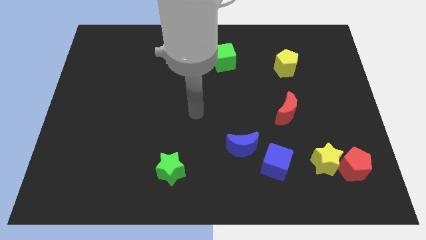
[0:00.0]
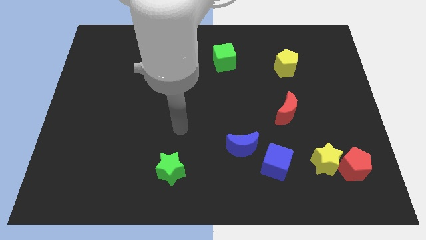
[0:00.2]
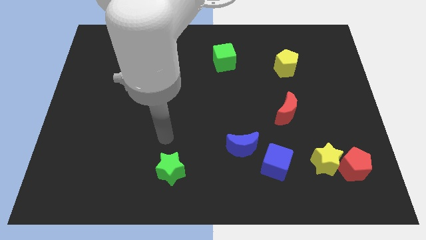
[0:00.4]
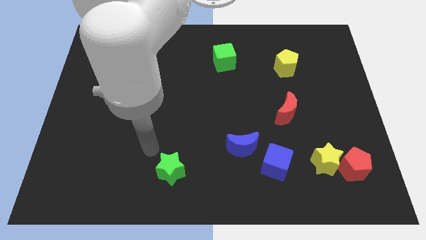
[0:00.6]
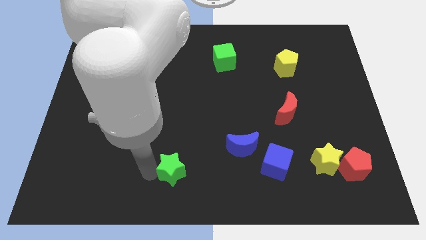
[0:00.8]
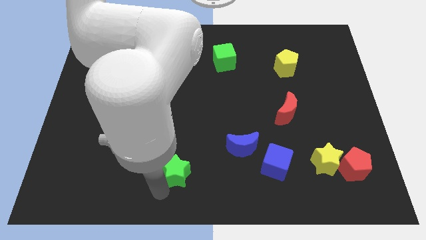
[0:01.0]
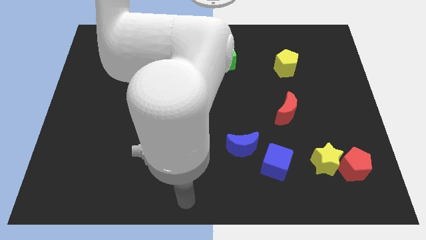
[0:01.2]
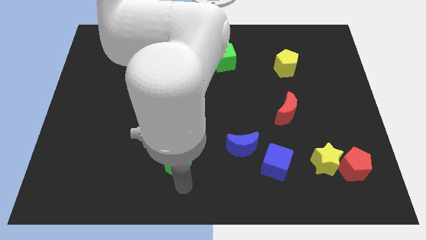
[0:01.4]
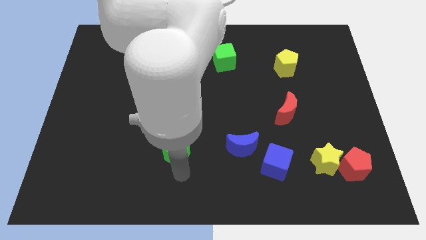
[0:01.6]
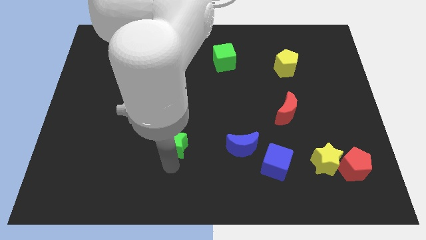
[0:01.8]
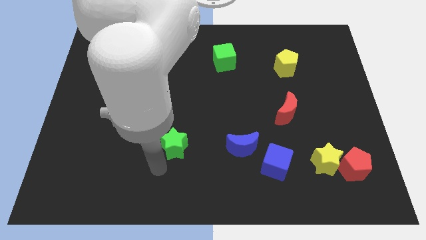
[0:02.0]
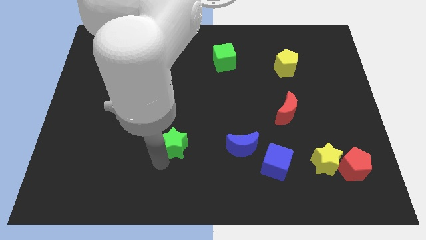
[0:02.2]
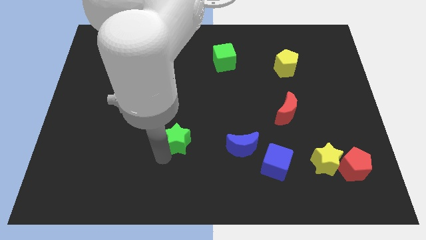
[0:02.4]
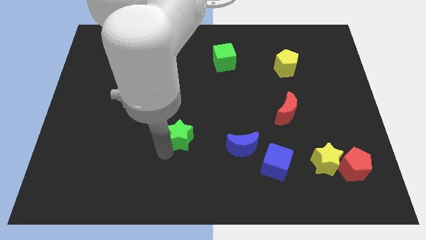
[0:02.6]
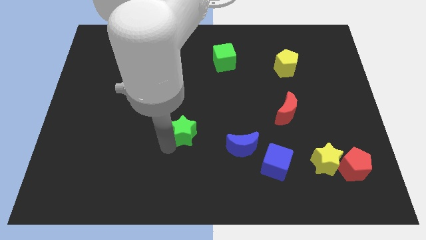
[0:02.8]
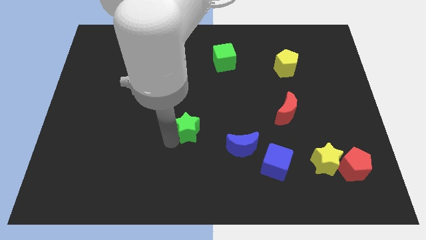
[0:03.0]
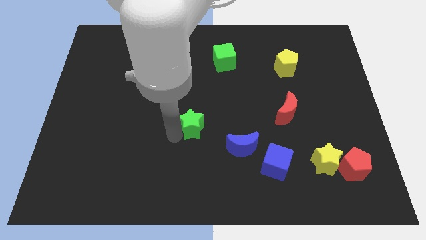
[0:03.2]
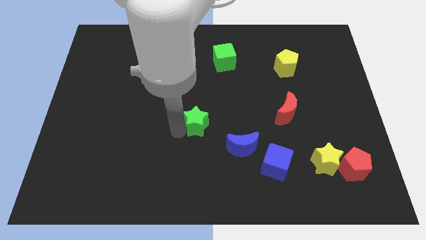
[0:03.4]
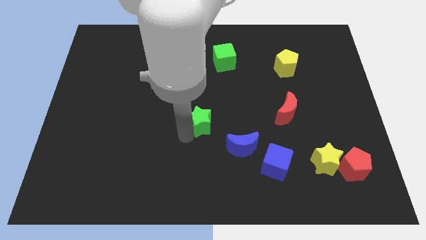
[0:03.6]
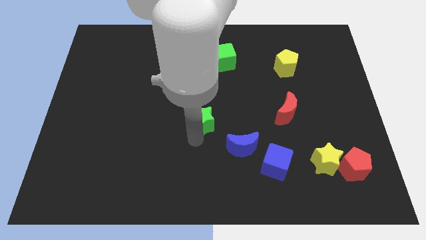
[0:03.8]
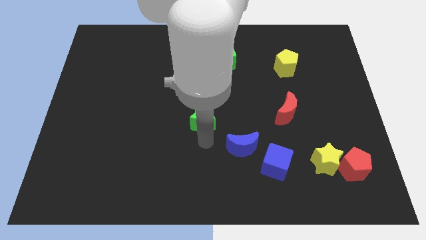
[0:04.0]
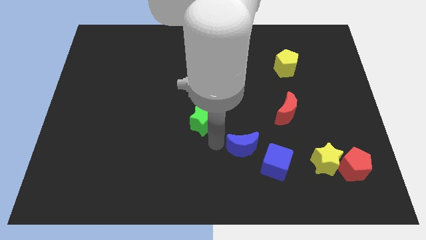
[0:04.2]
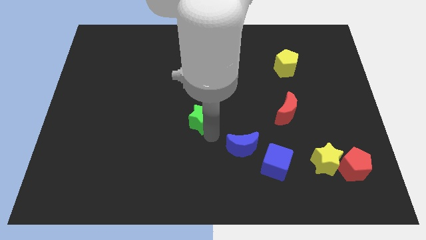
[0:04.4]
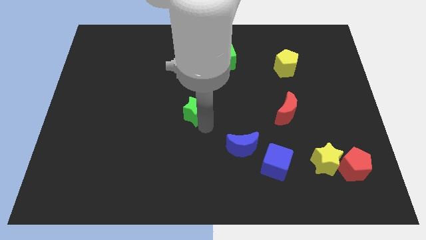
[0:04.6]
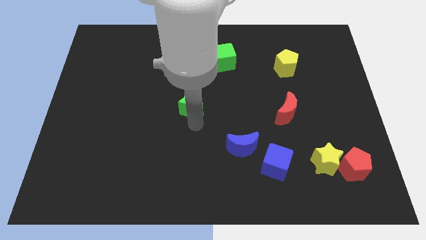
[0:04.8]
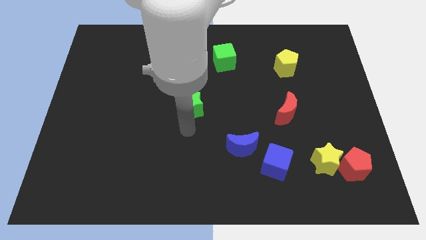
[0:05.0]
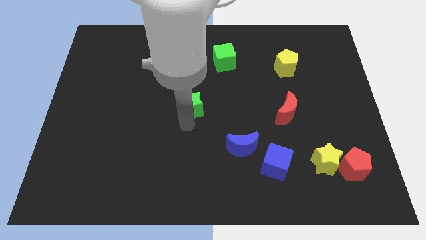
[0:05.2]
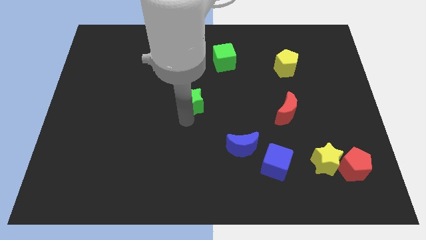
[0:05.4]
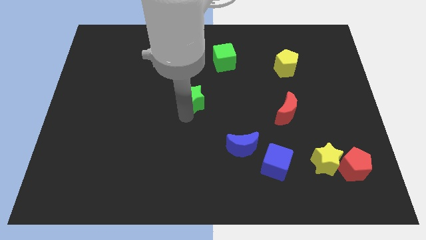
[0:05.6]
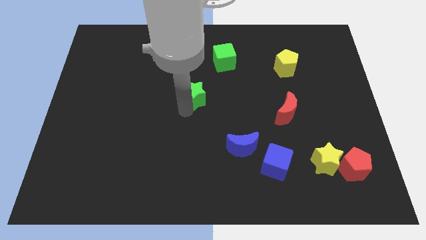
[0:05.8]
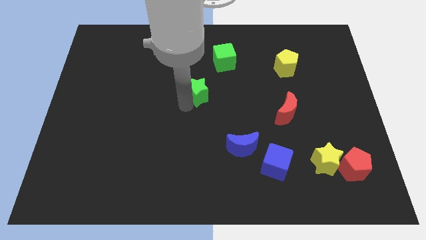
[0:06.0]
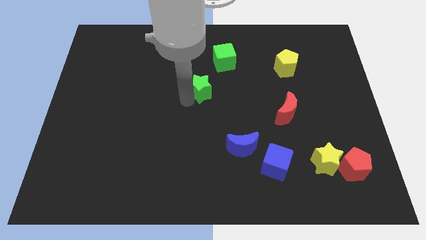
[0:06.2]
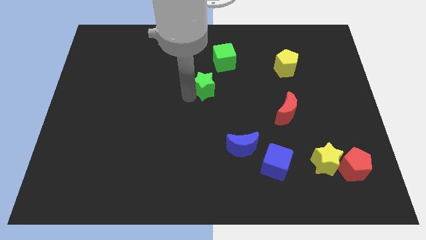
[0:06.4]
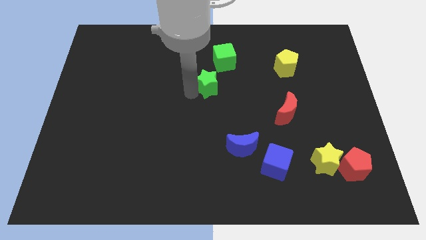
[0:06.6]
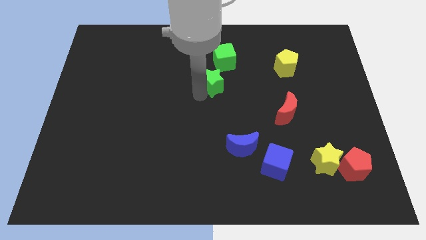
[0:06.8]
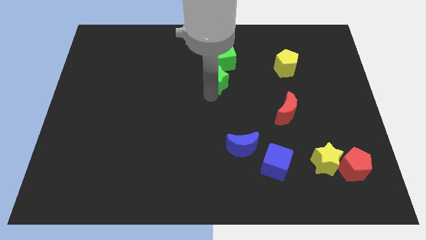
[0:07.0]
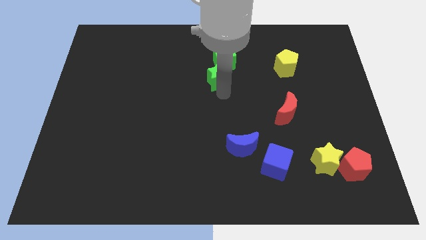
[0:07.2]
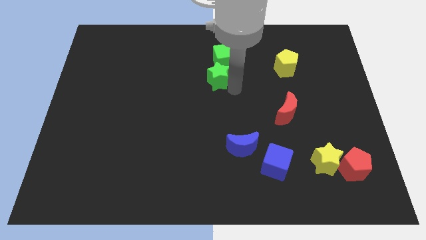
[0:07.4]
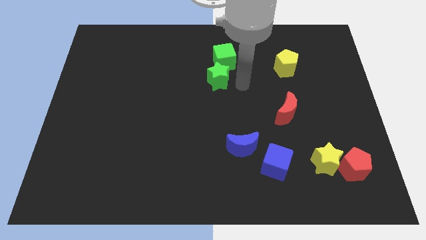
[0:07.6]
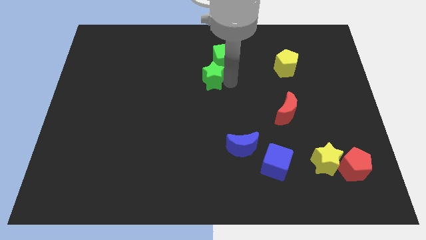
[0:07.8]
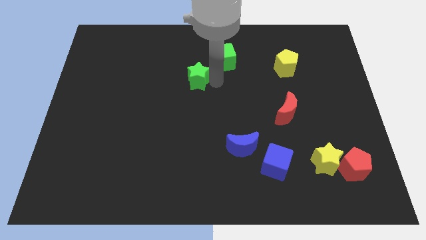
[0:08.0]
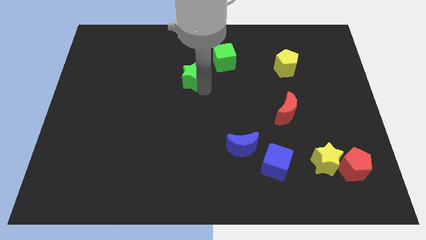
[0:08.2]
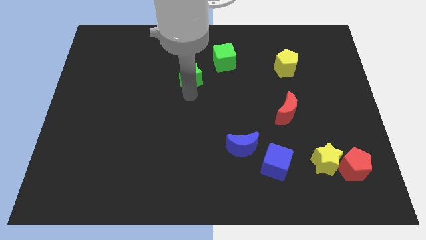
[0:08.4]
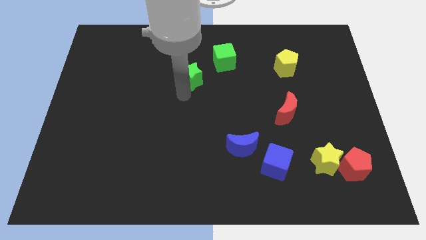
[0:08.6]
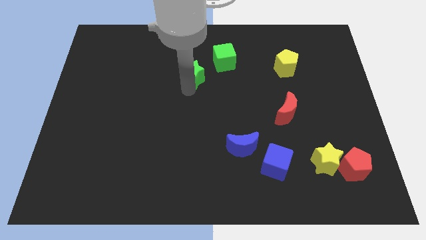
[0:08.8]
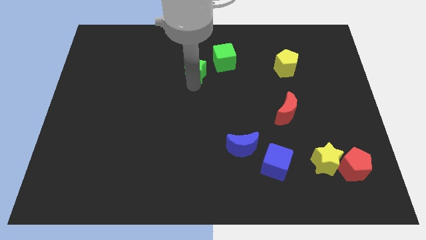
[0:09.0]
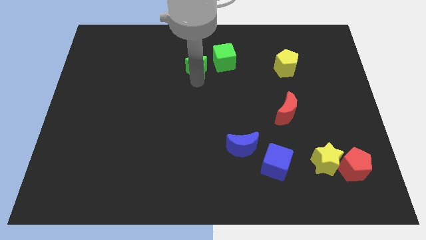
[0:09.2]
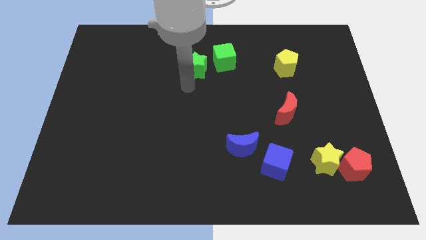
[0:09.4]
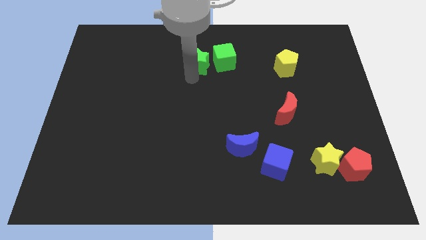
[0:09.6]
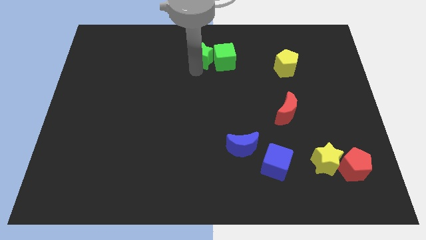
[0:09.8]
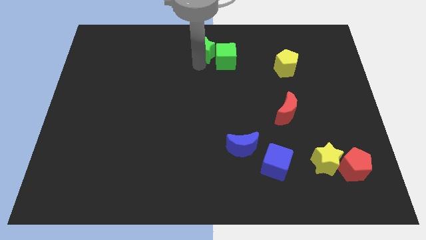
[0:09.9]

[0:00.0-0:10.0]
put the green star to the top

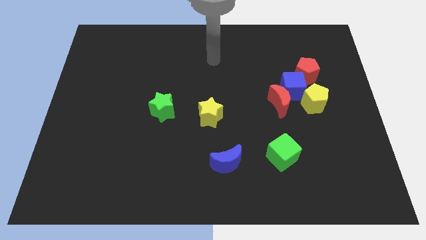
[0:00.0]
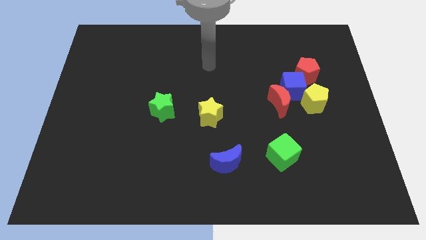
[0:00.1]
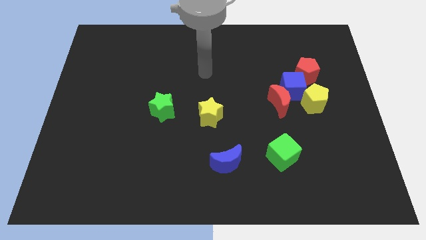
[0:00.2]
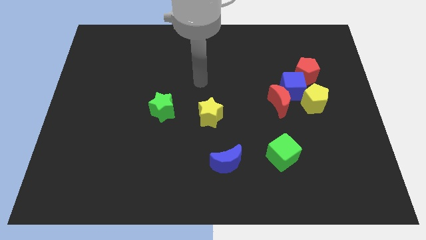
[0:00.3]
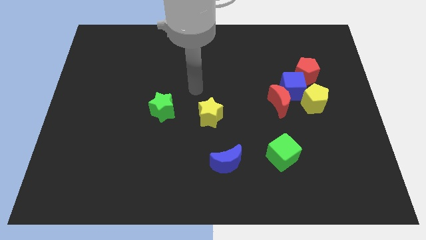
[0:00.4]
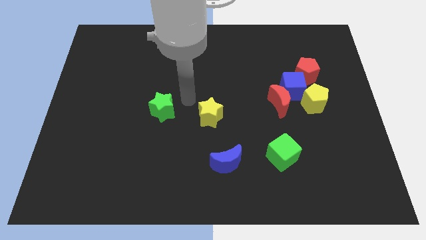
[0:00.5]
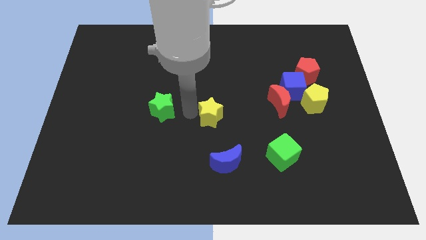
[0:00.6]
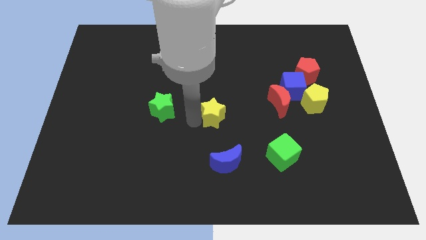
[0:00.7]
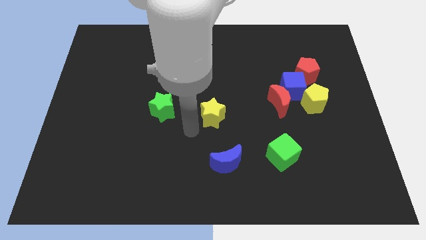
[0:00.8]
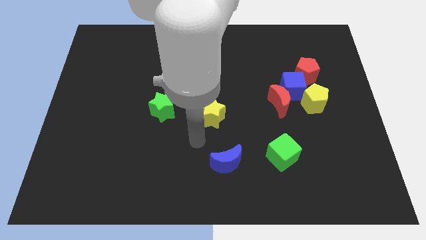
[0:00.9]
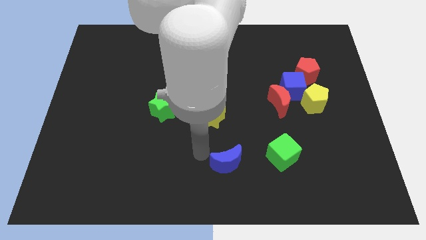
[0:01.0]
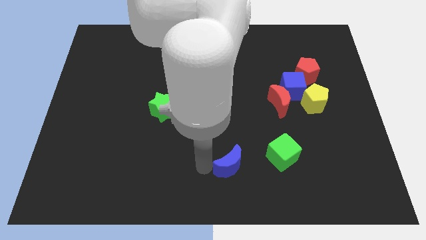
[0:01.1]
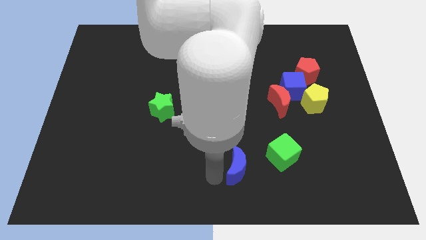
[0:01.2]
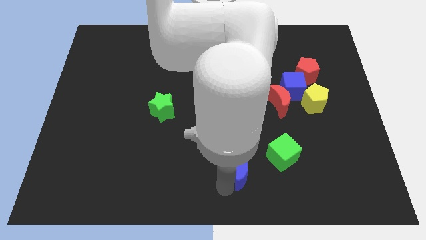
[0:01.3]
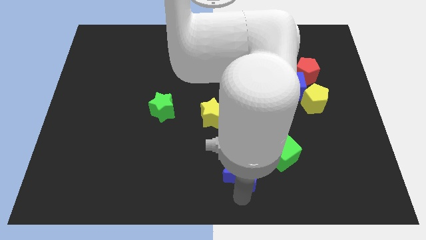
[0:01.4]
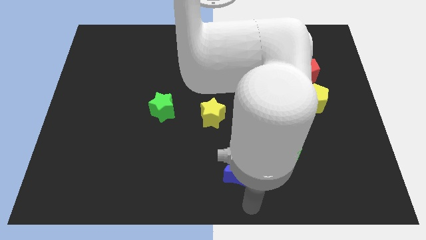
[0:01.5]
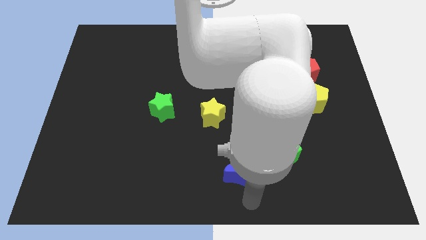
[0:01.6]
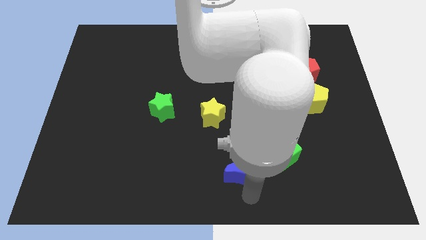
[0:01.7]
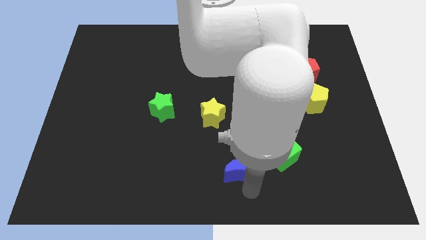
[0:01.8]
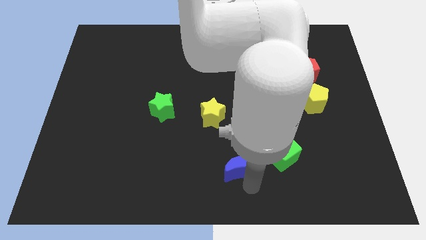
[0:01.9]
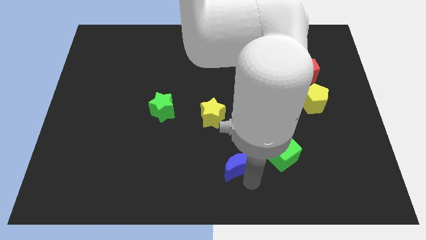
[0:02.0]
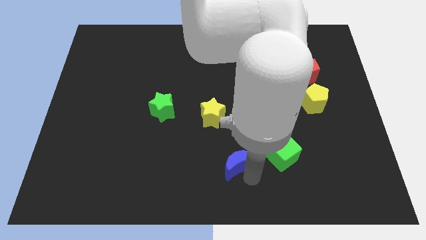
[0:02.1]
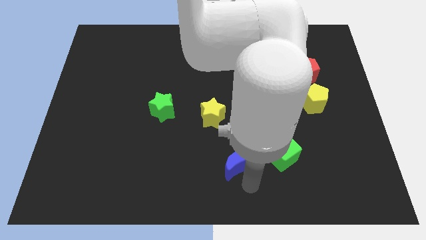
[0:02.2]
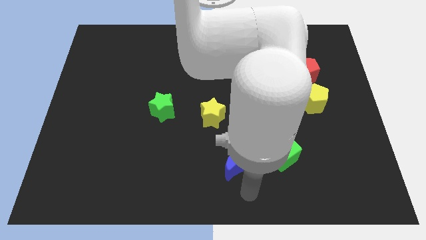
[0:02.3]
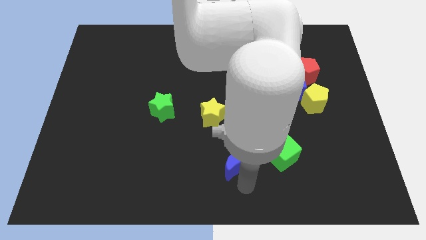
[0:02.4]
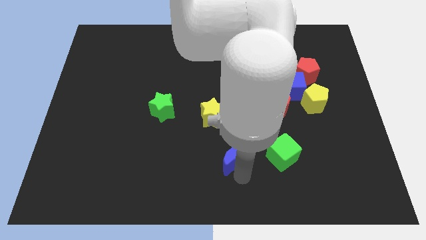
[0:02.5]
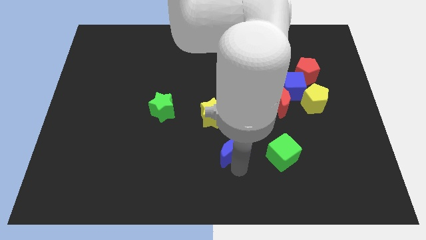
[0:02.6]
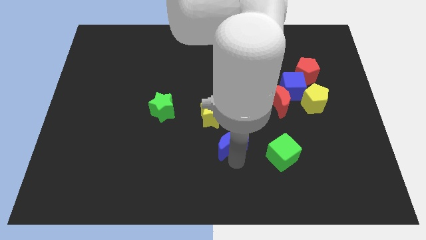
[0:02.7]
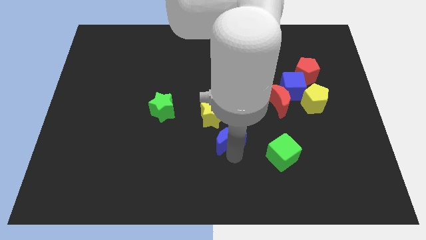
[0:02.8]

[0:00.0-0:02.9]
put the blue moon to the middle

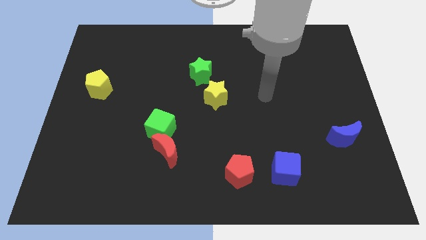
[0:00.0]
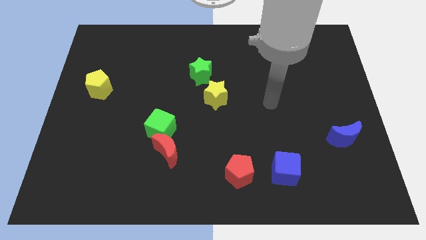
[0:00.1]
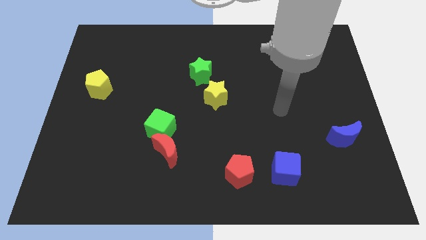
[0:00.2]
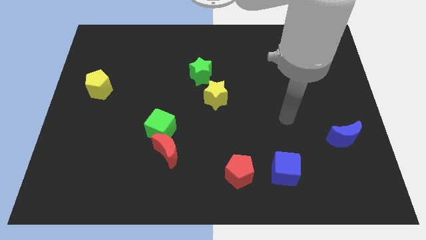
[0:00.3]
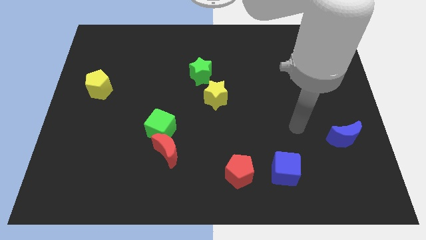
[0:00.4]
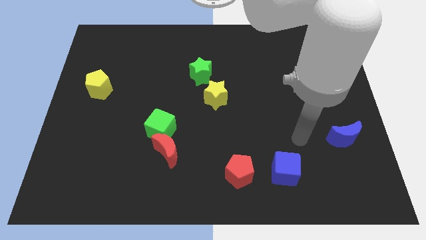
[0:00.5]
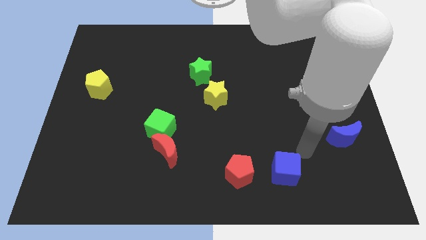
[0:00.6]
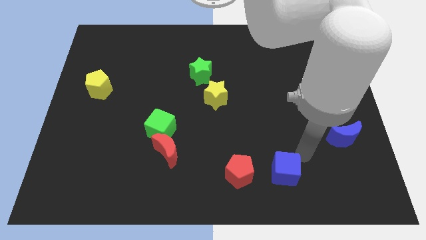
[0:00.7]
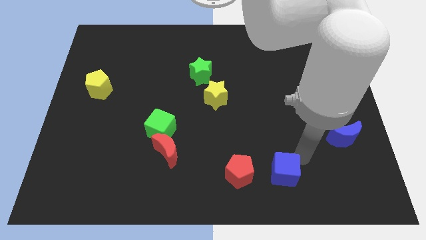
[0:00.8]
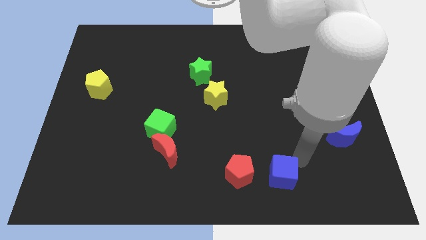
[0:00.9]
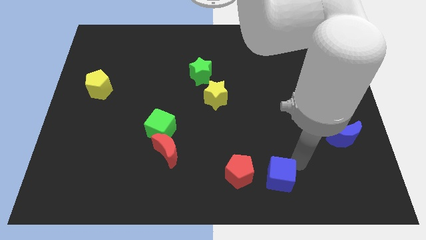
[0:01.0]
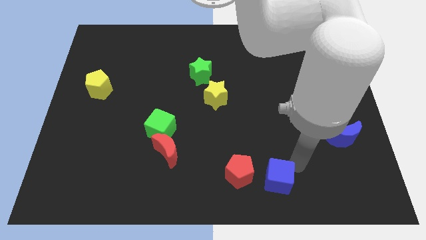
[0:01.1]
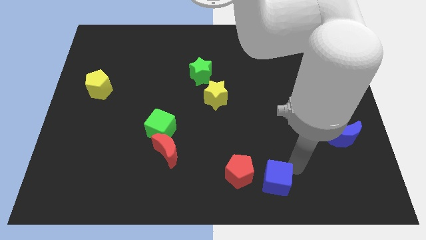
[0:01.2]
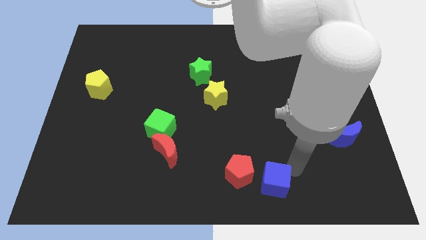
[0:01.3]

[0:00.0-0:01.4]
move the blue cube to the bottom side
